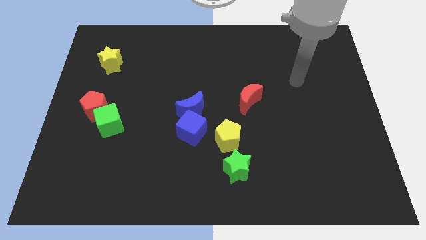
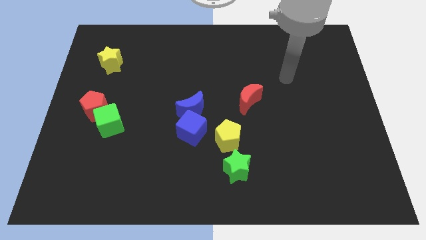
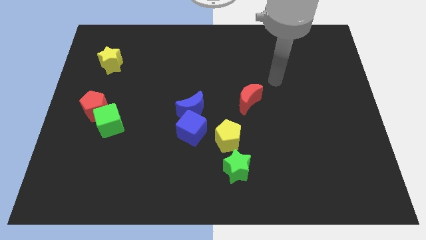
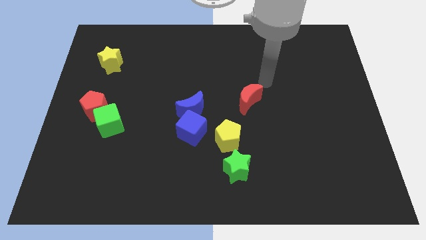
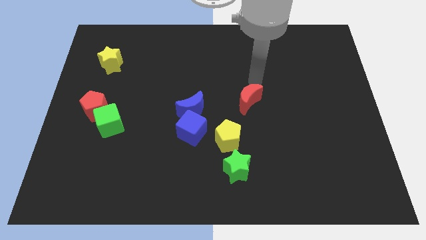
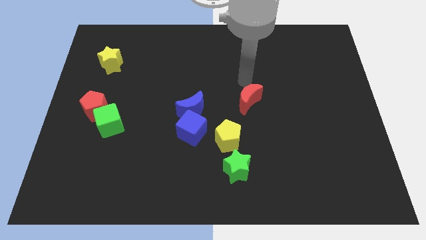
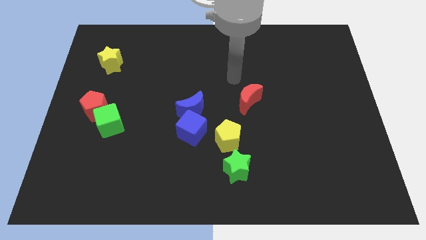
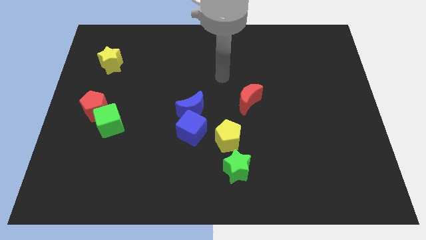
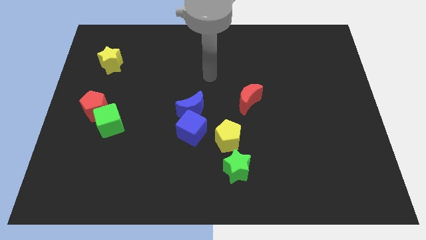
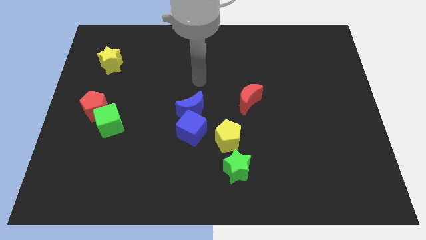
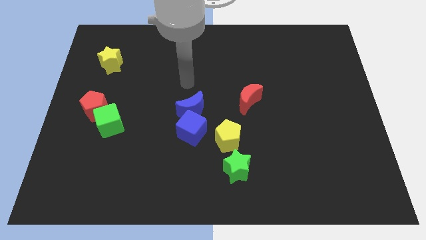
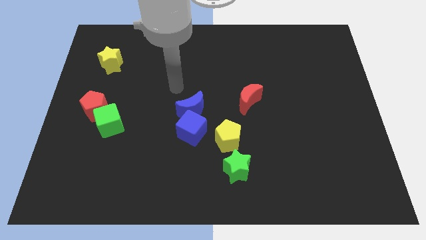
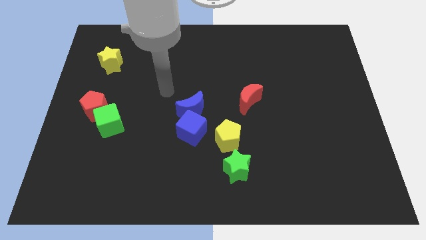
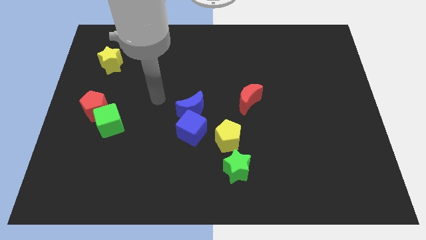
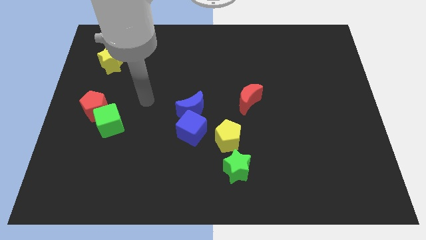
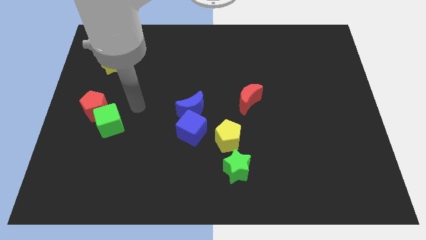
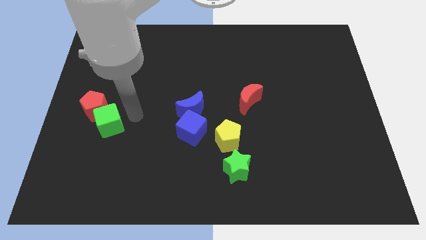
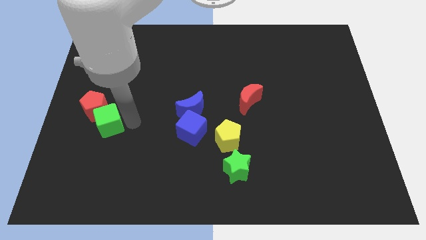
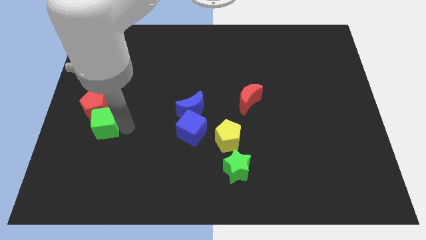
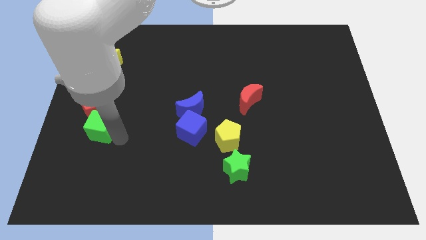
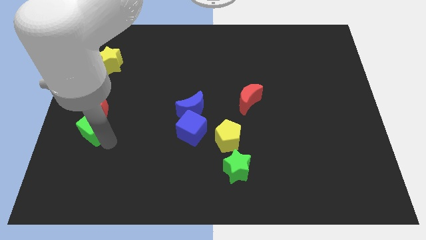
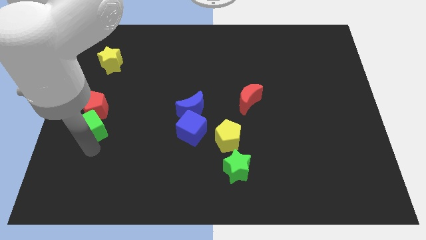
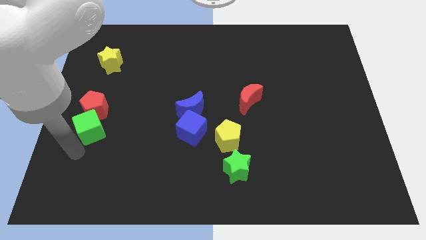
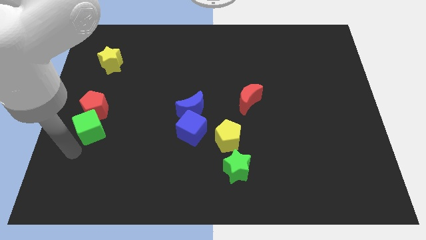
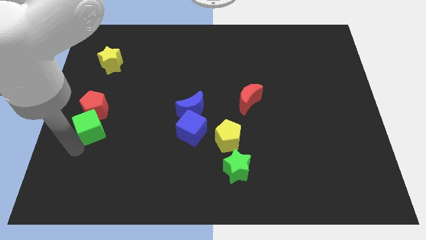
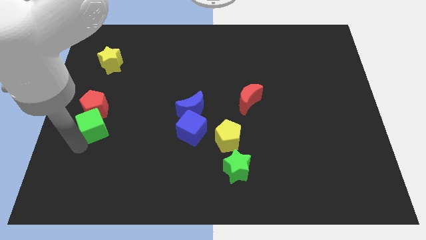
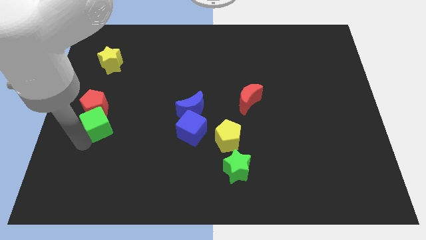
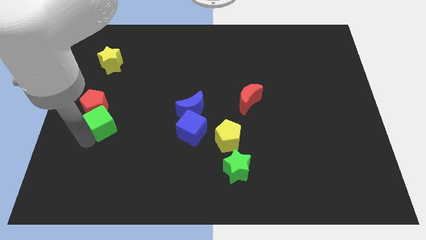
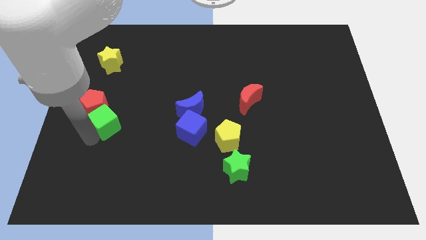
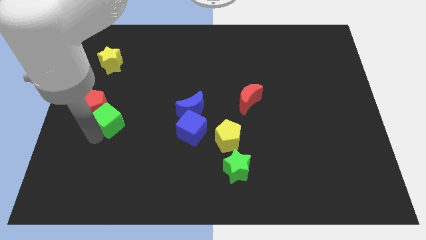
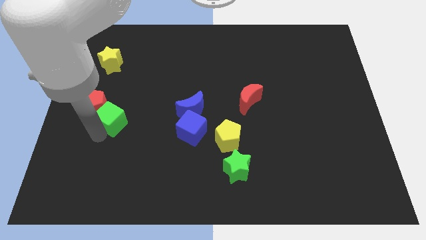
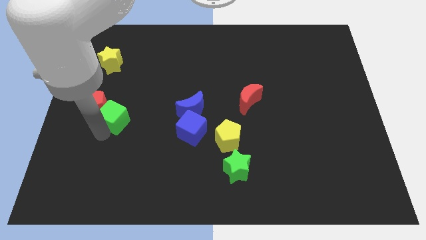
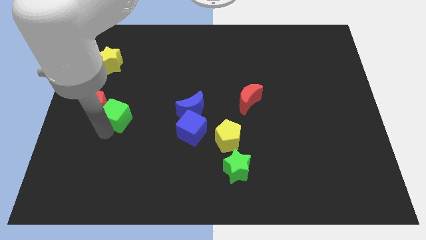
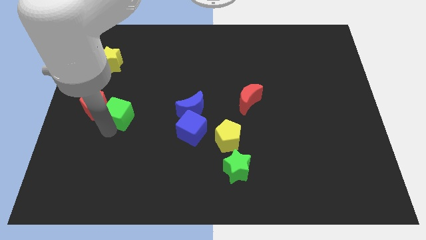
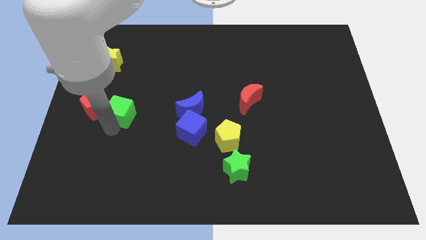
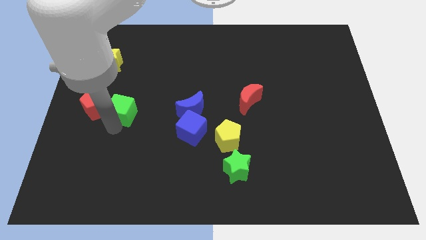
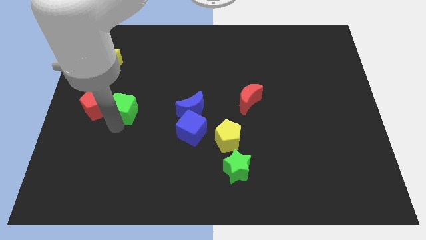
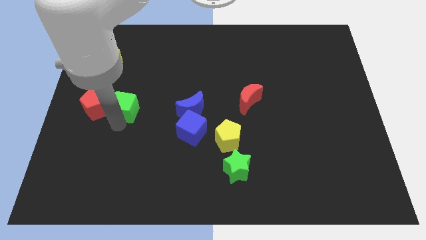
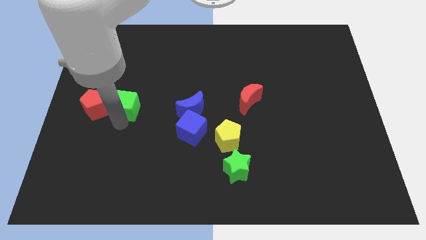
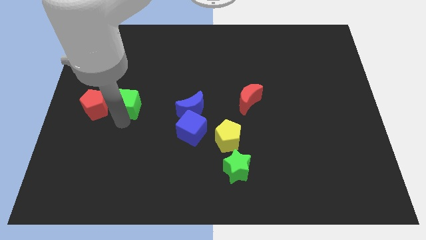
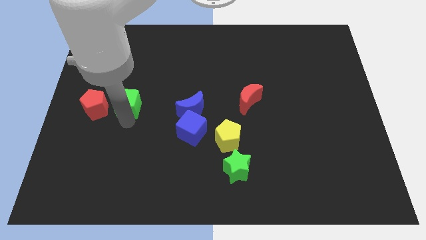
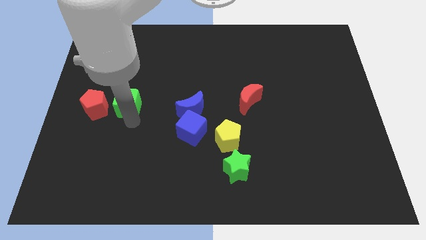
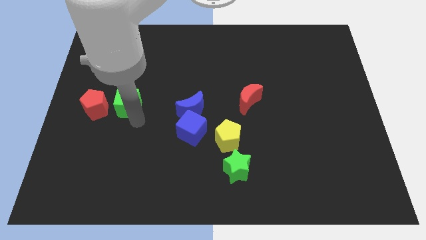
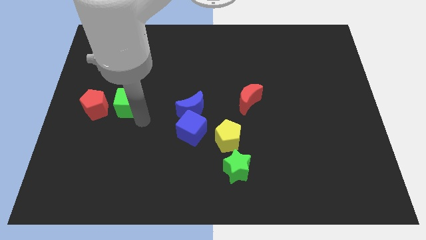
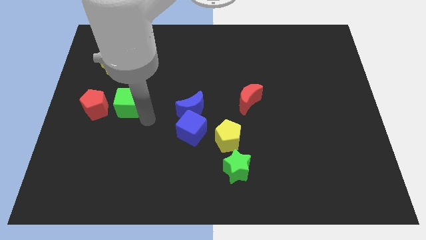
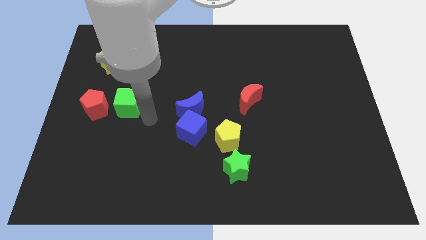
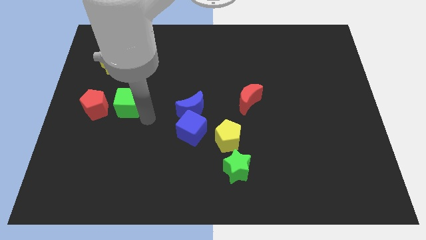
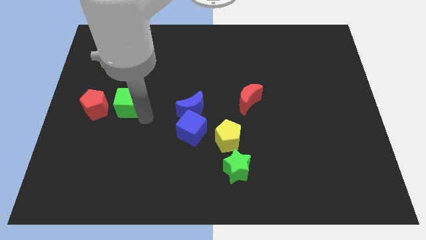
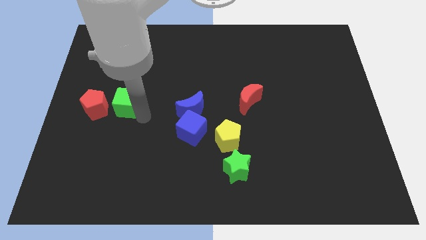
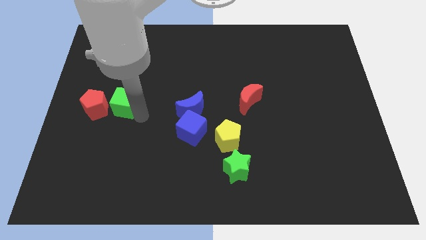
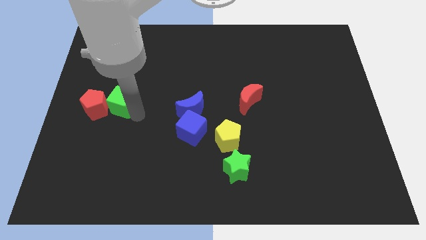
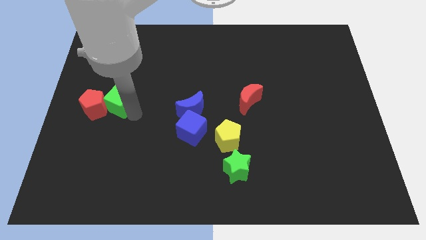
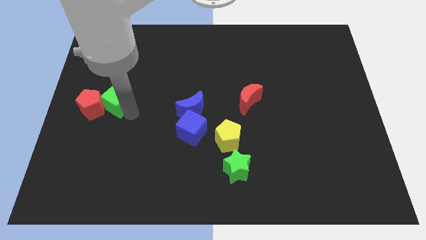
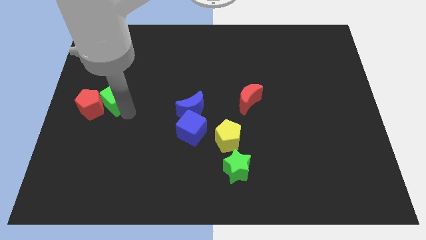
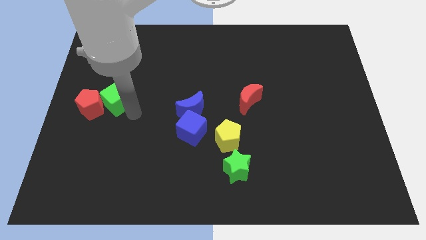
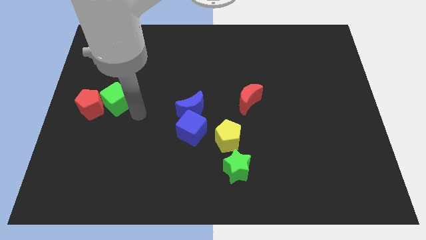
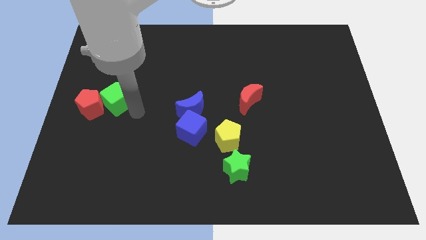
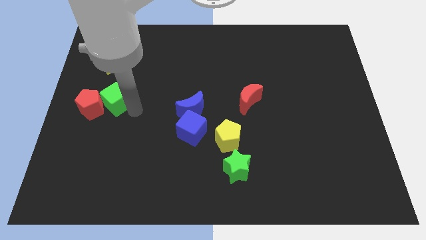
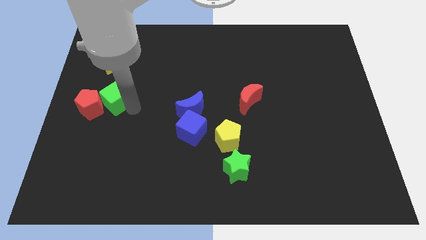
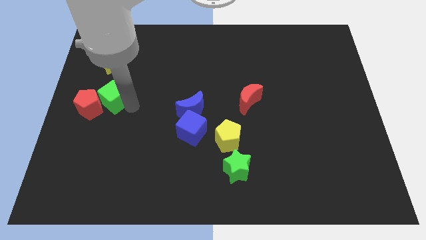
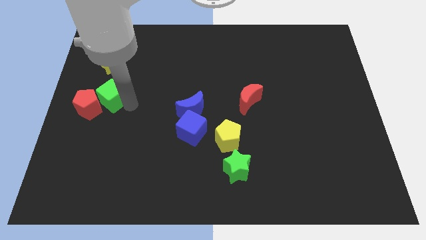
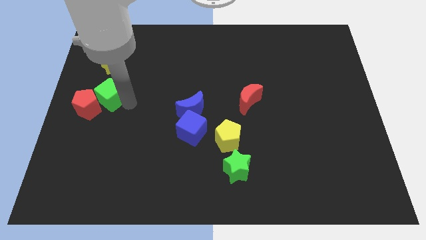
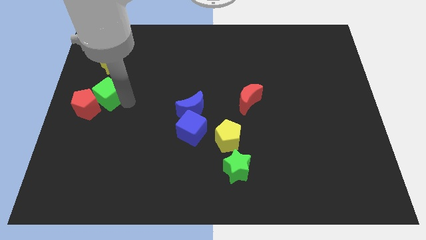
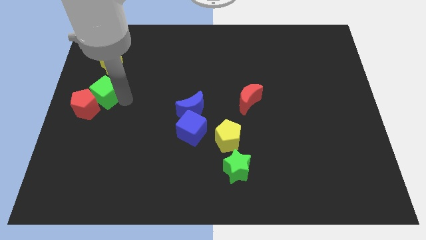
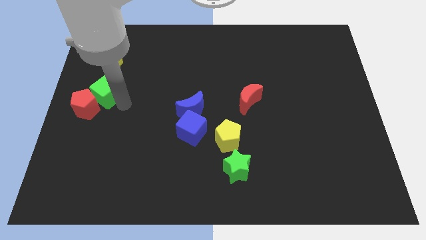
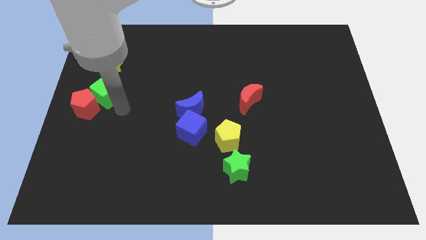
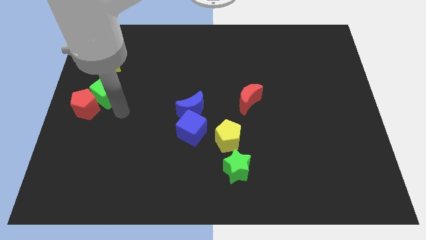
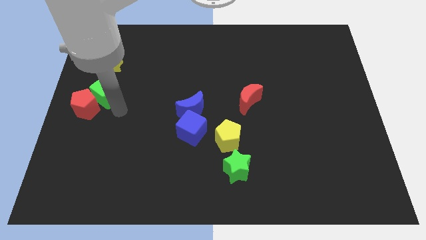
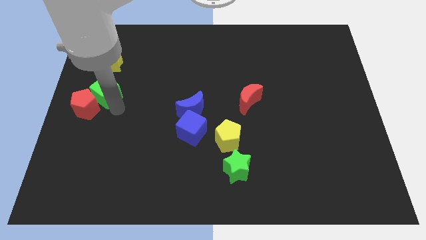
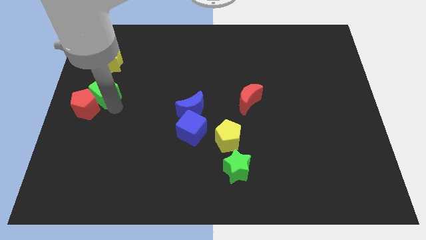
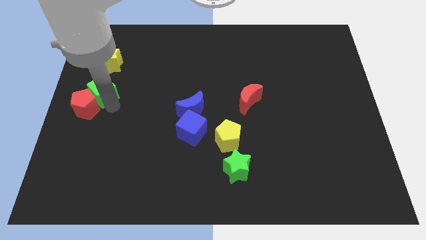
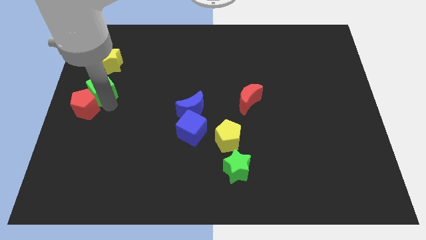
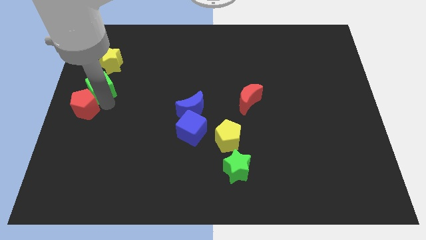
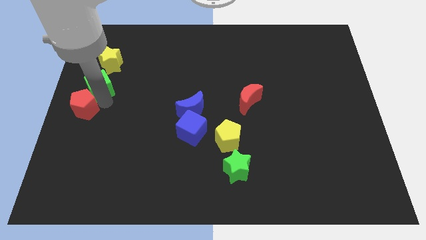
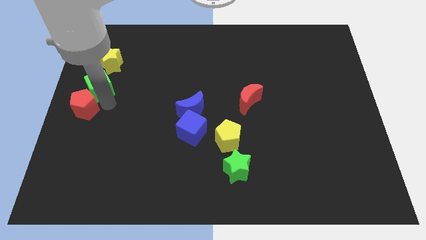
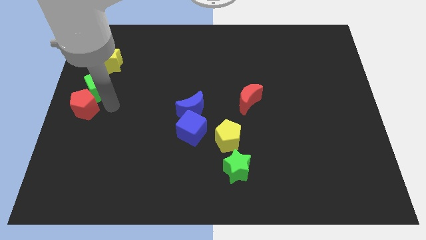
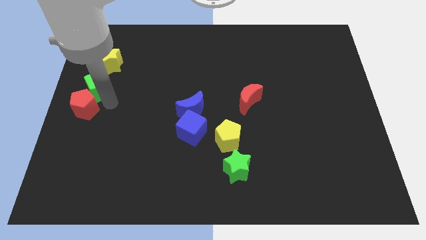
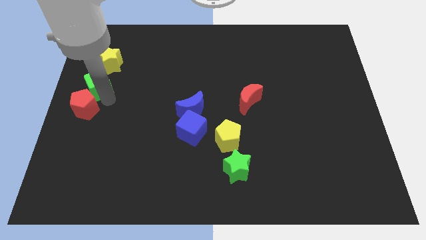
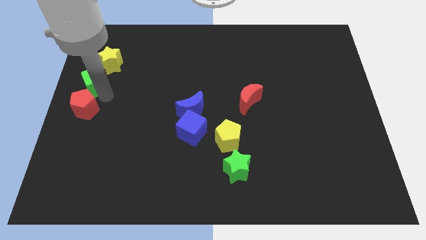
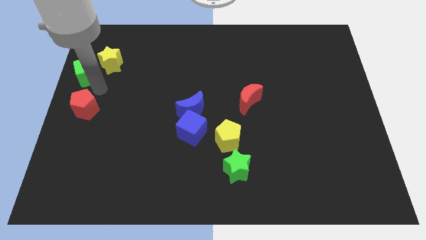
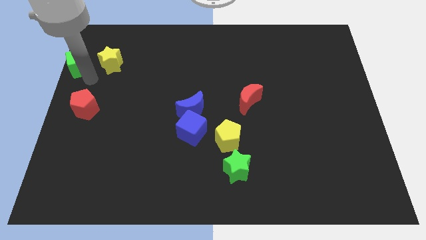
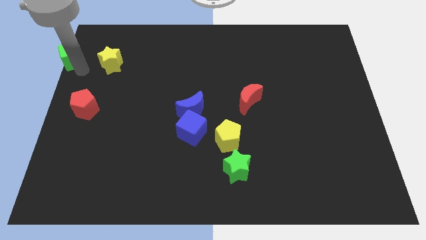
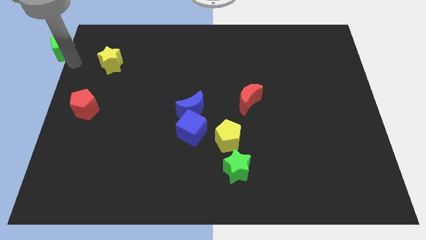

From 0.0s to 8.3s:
push the green cube to the top left of the board
